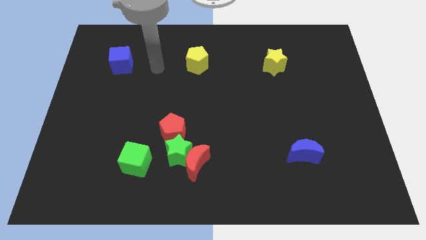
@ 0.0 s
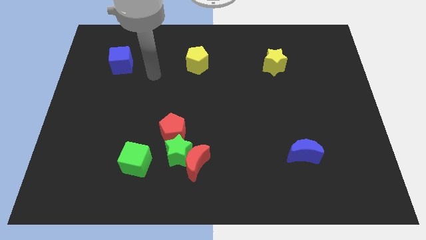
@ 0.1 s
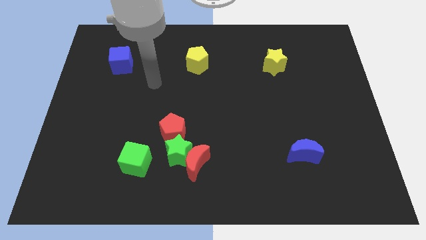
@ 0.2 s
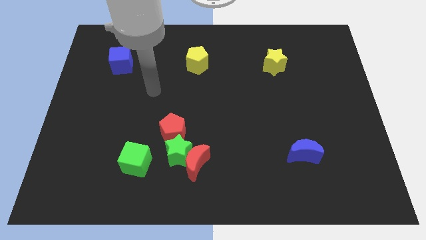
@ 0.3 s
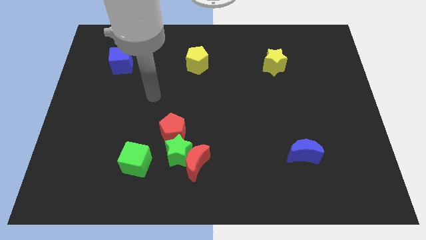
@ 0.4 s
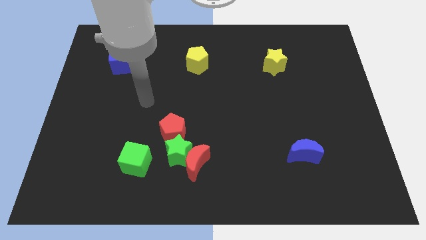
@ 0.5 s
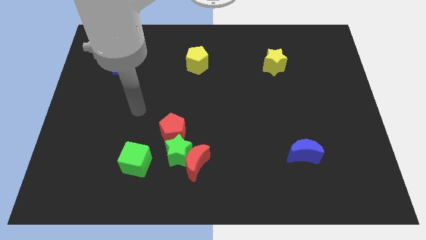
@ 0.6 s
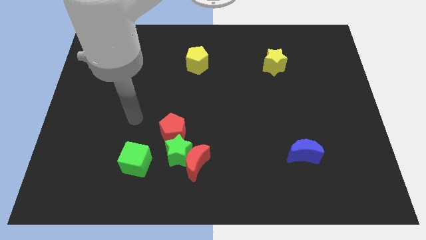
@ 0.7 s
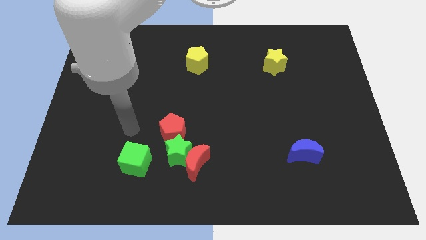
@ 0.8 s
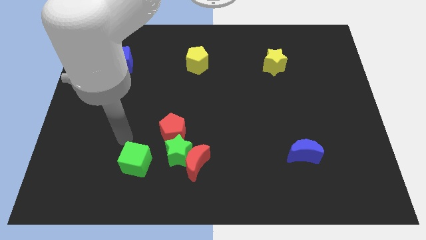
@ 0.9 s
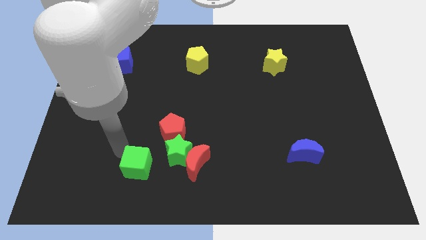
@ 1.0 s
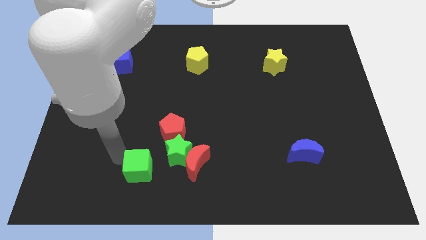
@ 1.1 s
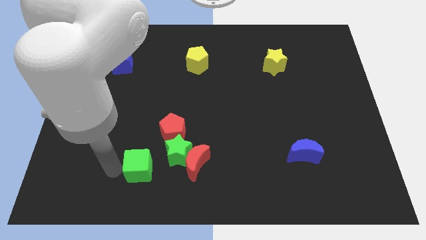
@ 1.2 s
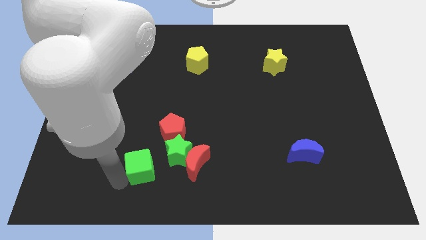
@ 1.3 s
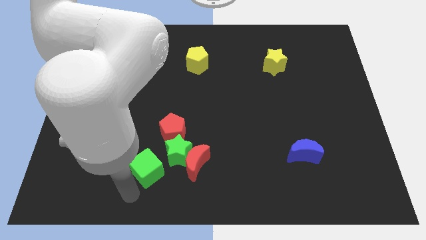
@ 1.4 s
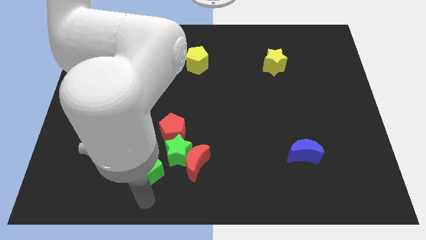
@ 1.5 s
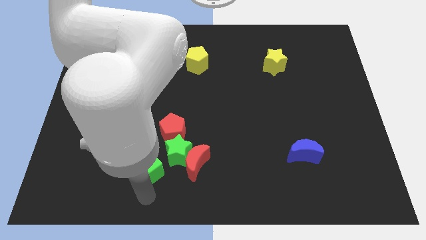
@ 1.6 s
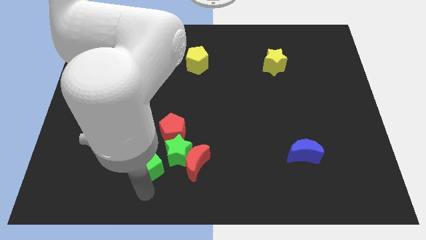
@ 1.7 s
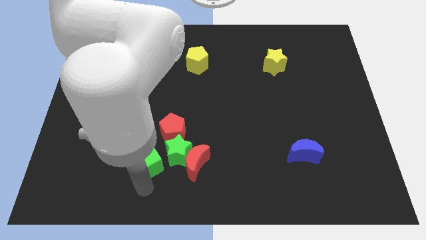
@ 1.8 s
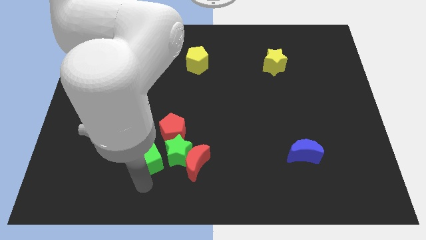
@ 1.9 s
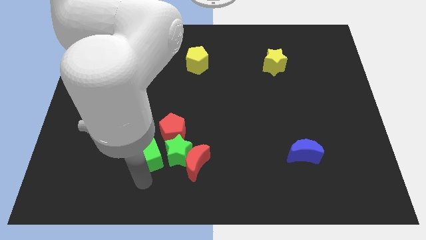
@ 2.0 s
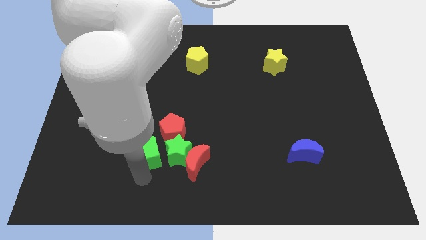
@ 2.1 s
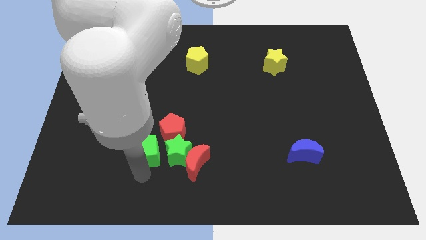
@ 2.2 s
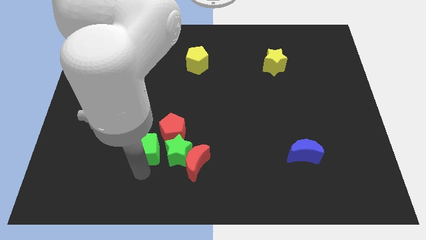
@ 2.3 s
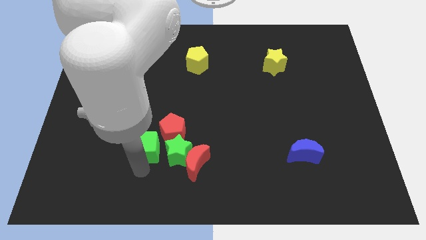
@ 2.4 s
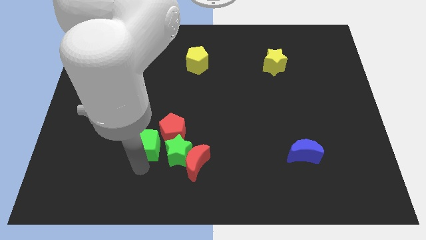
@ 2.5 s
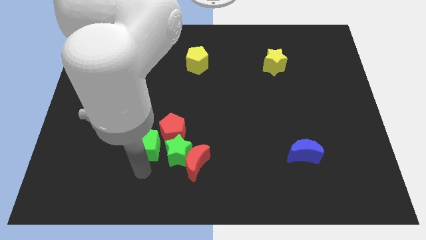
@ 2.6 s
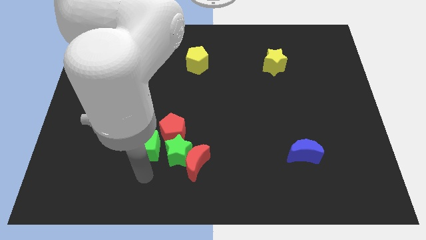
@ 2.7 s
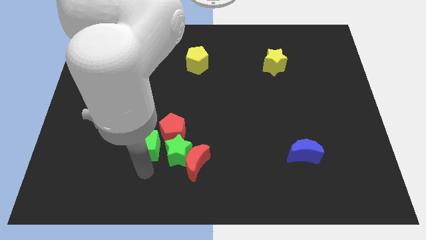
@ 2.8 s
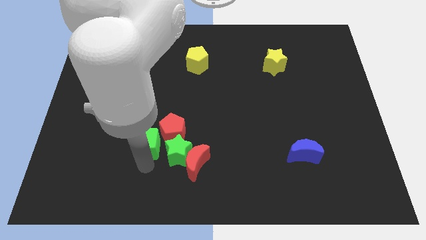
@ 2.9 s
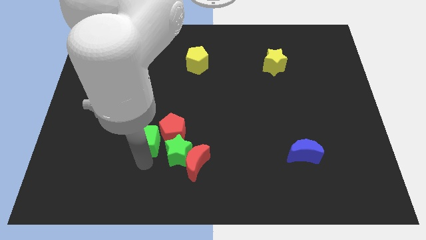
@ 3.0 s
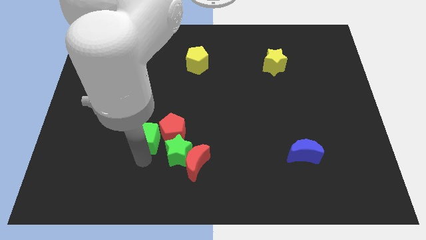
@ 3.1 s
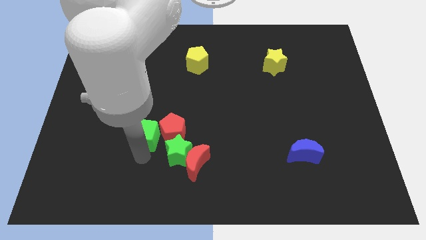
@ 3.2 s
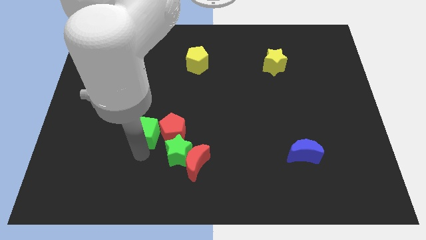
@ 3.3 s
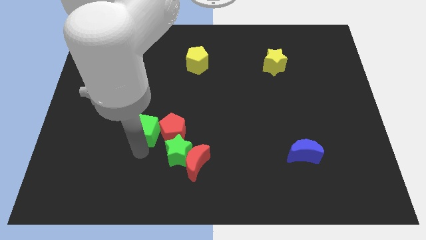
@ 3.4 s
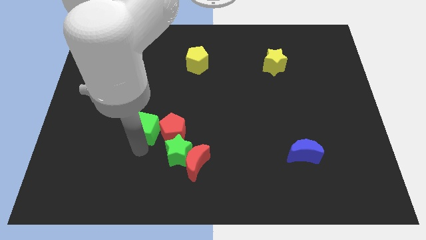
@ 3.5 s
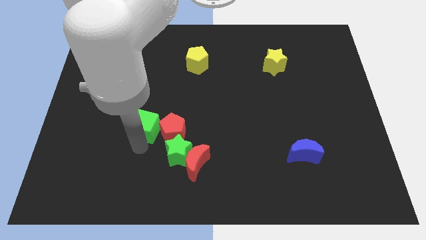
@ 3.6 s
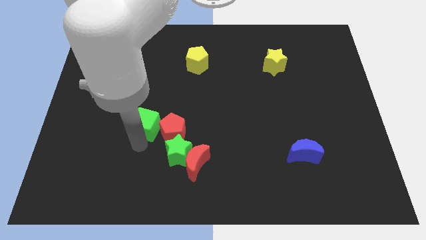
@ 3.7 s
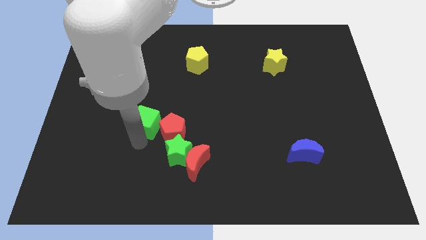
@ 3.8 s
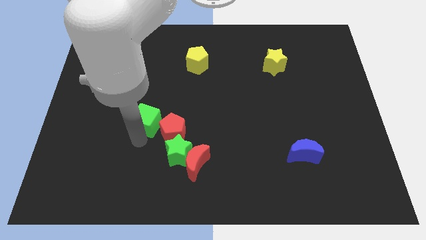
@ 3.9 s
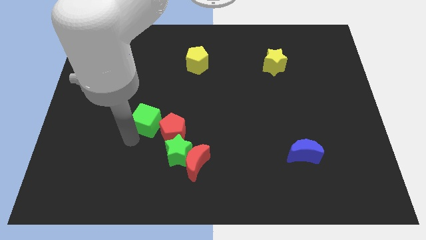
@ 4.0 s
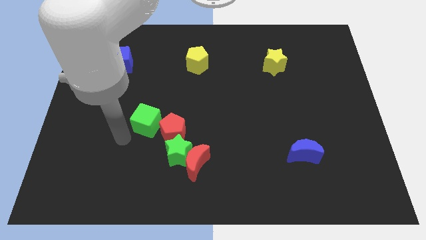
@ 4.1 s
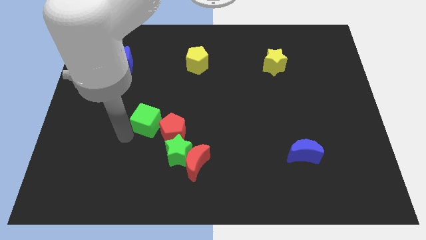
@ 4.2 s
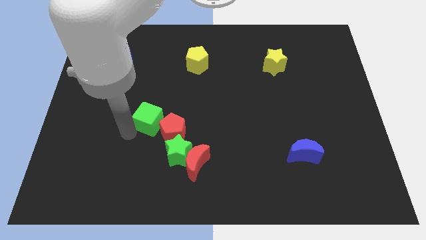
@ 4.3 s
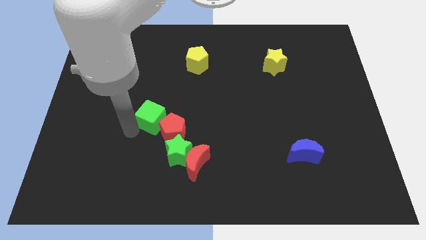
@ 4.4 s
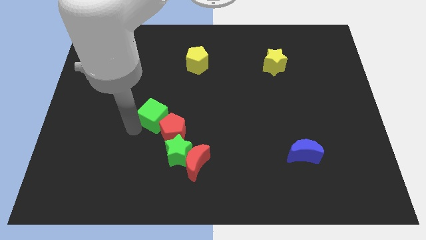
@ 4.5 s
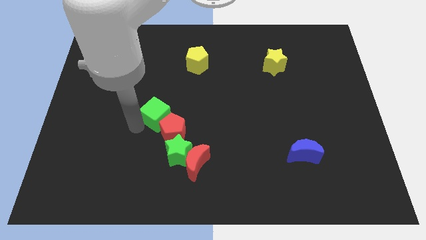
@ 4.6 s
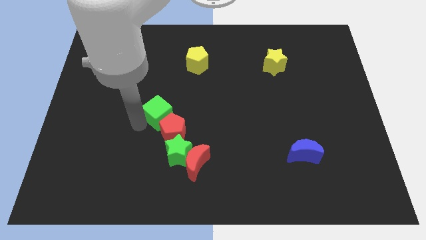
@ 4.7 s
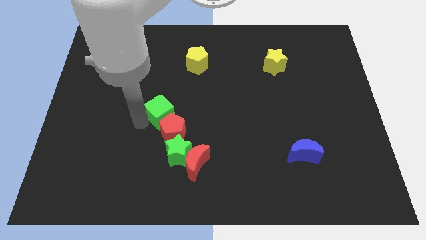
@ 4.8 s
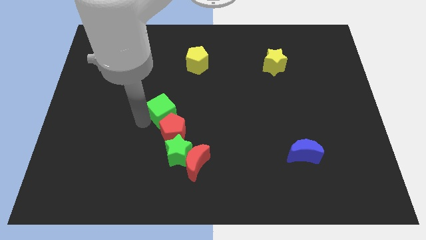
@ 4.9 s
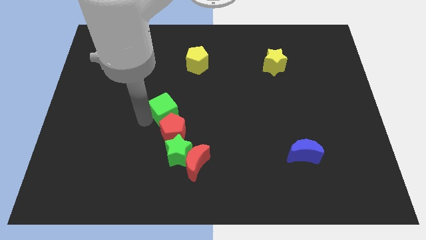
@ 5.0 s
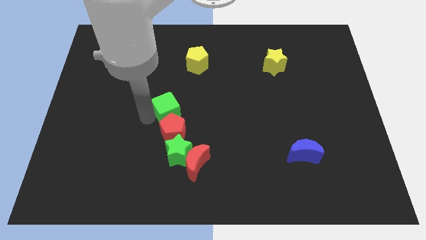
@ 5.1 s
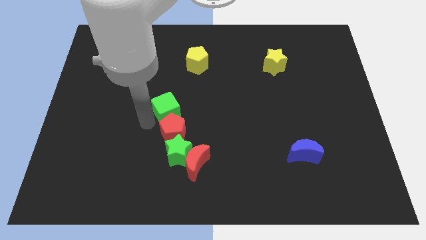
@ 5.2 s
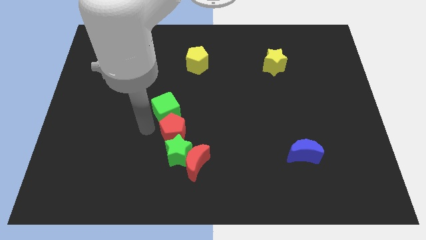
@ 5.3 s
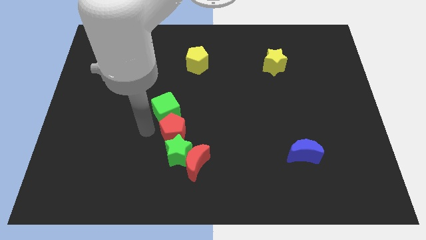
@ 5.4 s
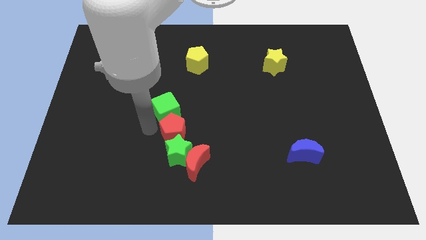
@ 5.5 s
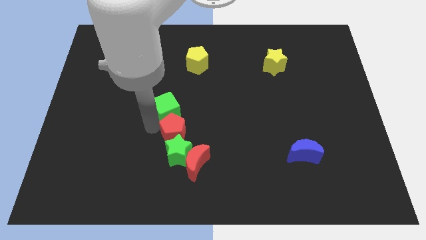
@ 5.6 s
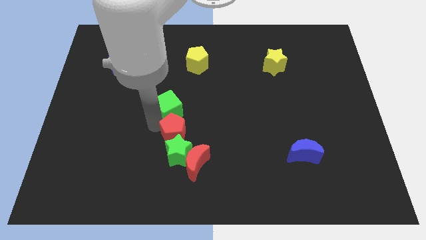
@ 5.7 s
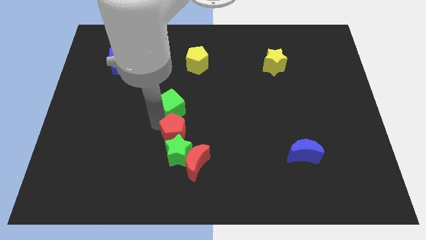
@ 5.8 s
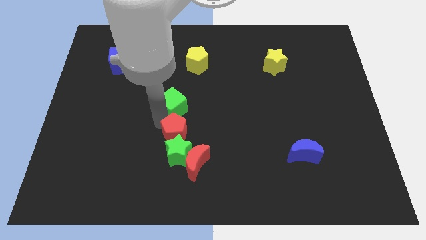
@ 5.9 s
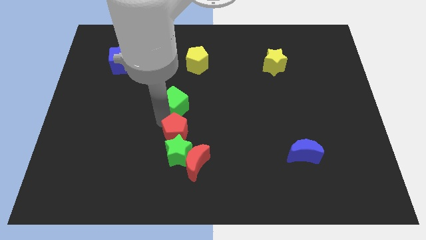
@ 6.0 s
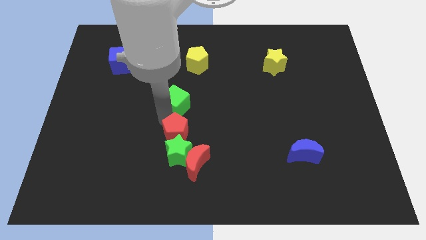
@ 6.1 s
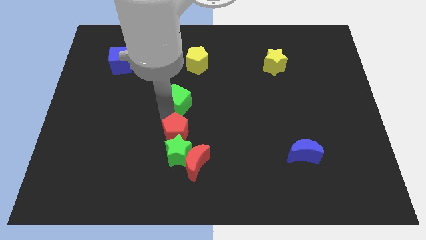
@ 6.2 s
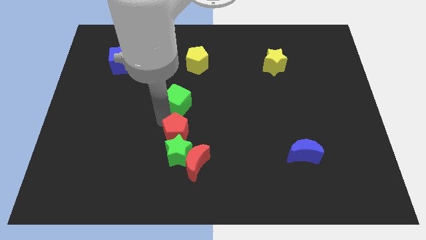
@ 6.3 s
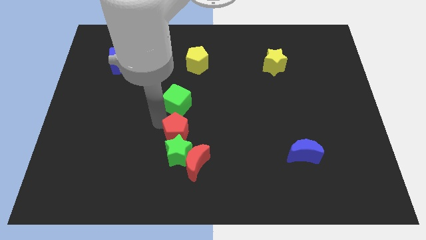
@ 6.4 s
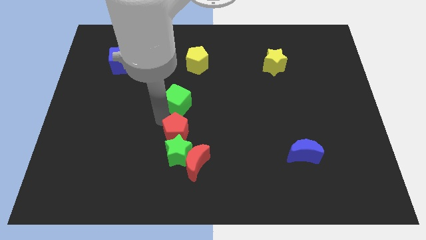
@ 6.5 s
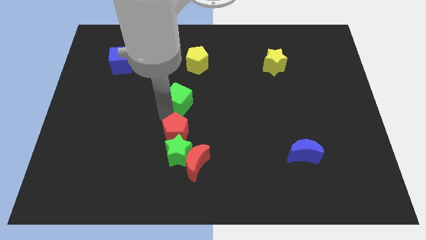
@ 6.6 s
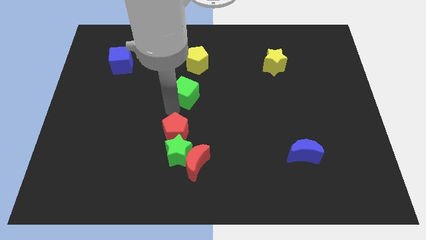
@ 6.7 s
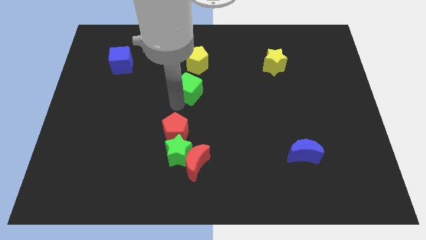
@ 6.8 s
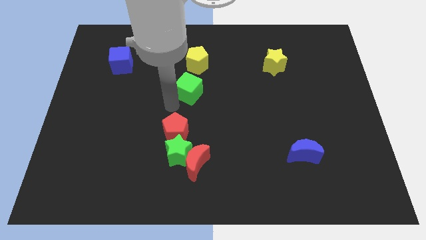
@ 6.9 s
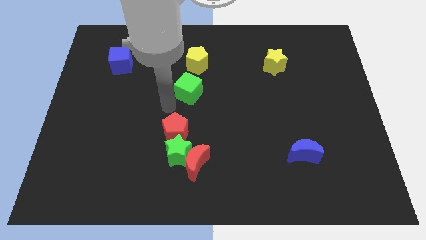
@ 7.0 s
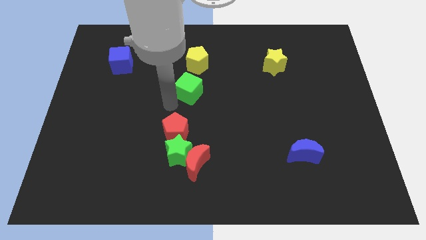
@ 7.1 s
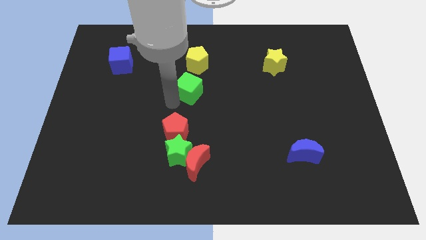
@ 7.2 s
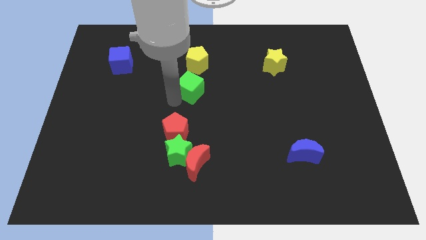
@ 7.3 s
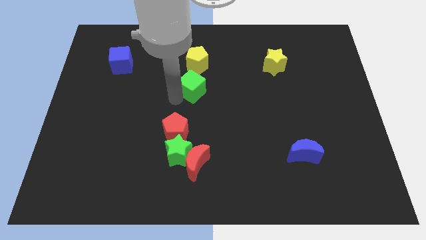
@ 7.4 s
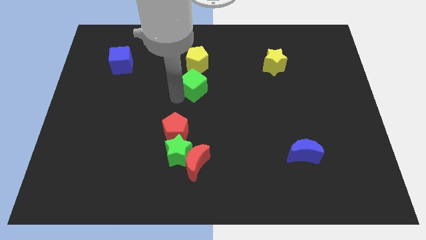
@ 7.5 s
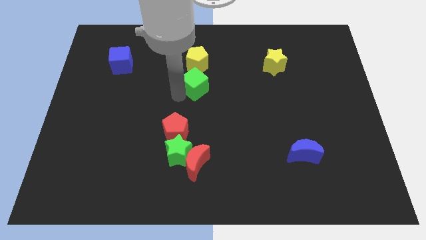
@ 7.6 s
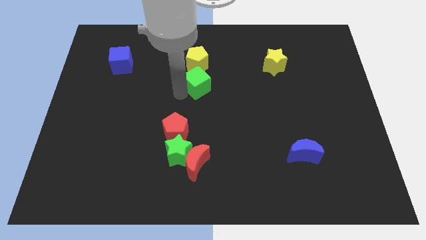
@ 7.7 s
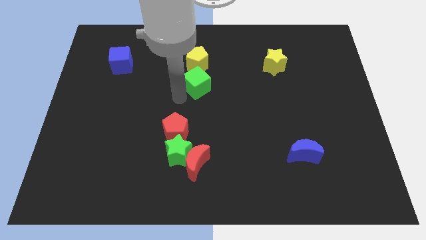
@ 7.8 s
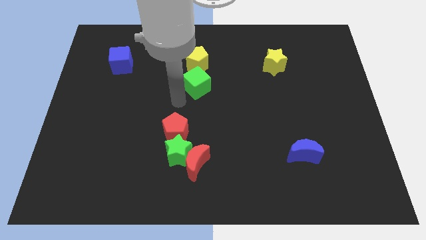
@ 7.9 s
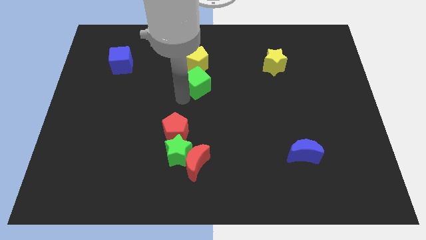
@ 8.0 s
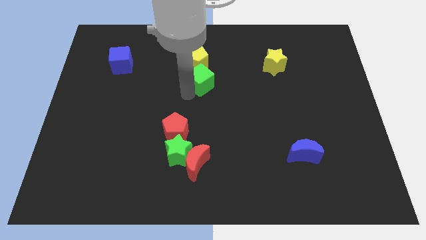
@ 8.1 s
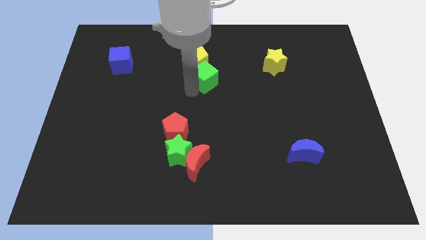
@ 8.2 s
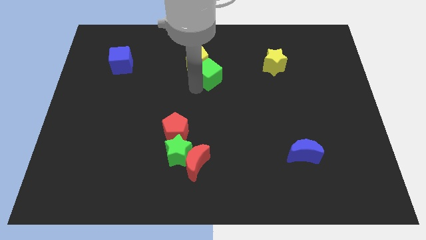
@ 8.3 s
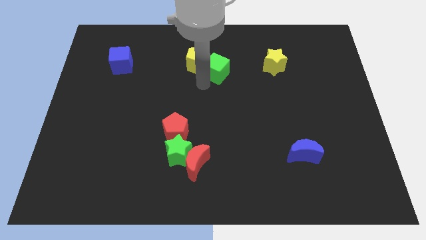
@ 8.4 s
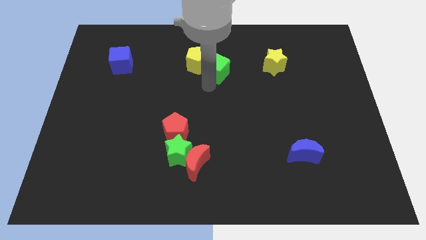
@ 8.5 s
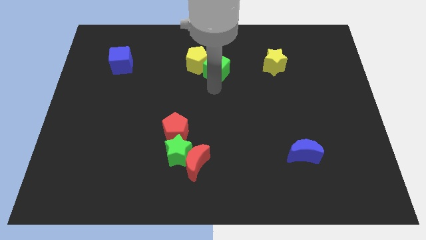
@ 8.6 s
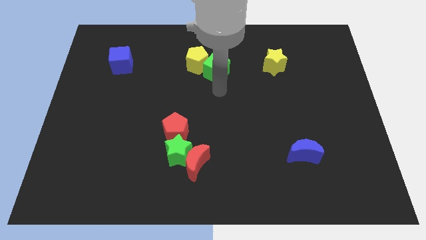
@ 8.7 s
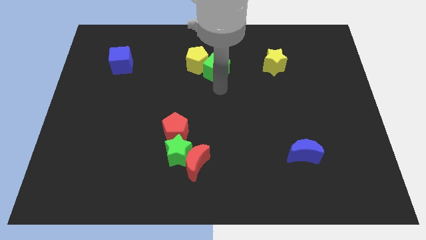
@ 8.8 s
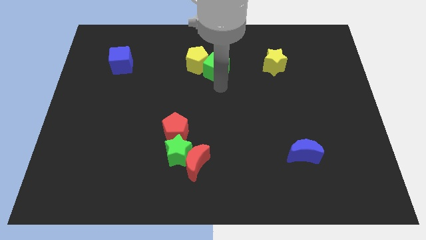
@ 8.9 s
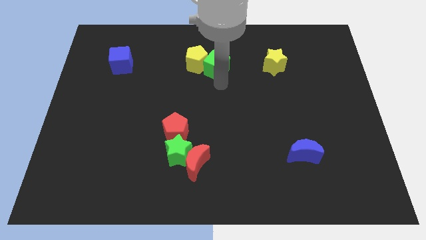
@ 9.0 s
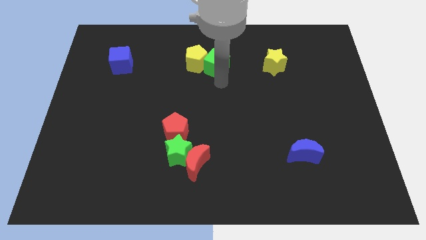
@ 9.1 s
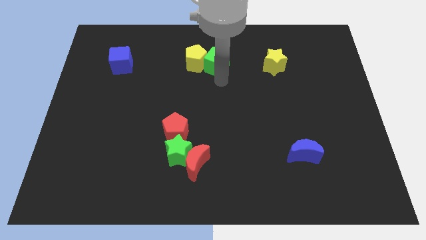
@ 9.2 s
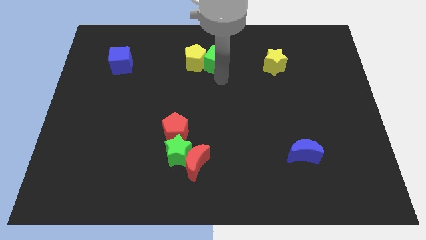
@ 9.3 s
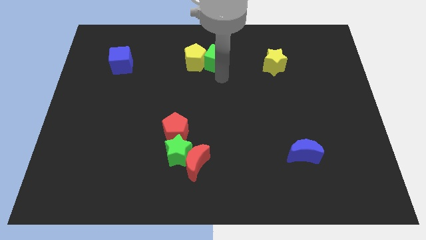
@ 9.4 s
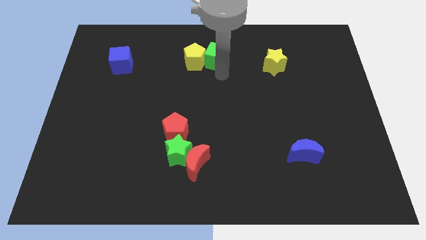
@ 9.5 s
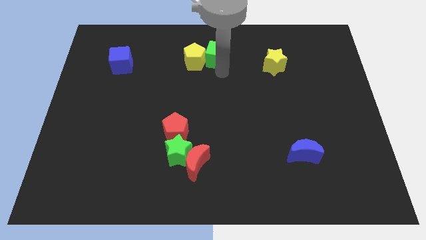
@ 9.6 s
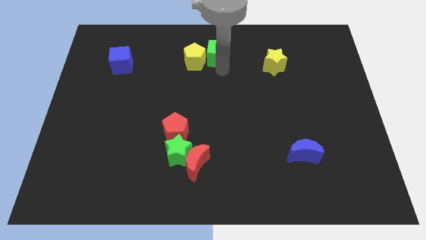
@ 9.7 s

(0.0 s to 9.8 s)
move the green cube to the top
